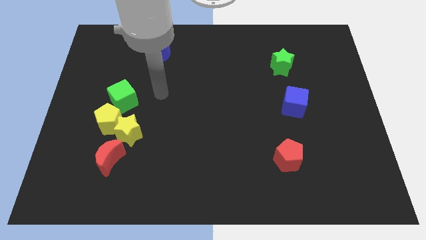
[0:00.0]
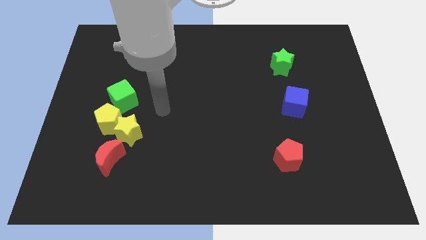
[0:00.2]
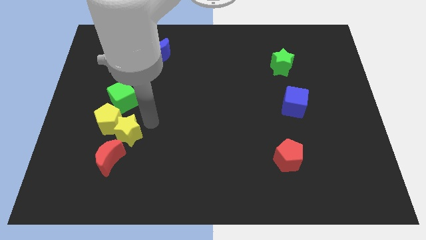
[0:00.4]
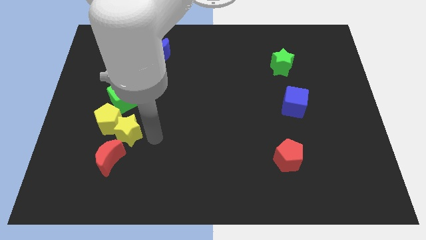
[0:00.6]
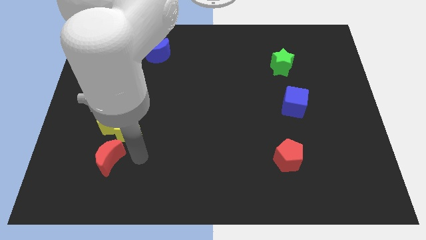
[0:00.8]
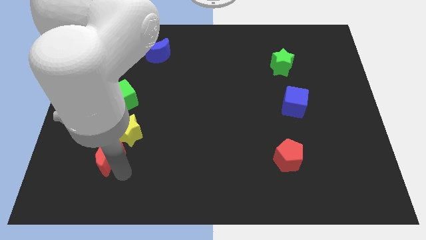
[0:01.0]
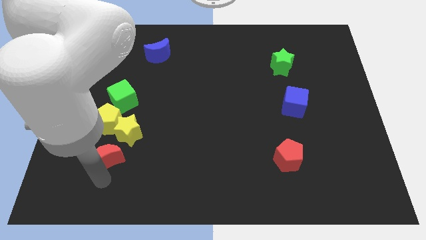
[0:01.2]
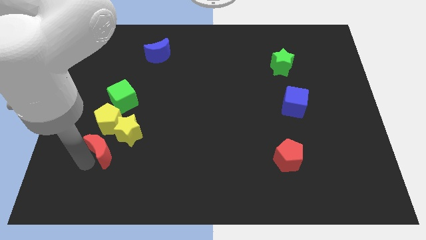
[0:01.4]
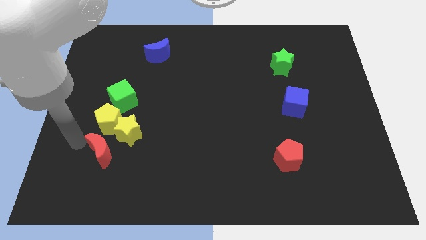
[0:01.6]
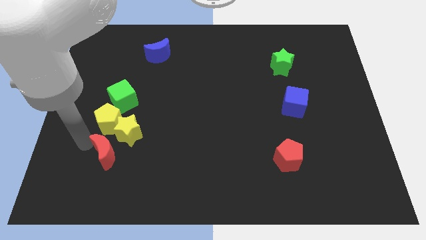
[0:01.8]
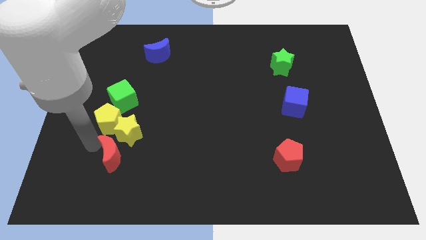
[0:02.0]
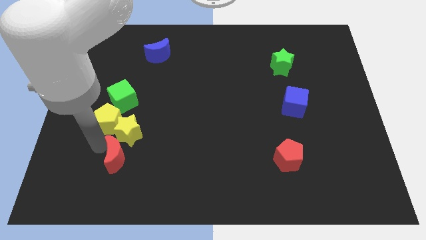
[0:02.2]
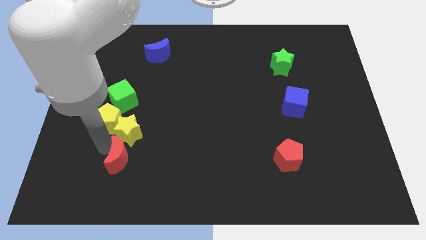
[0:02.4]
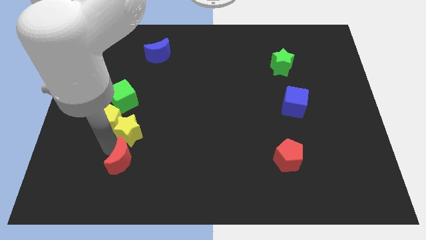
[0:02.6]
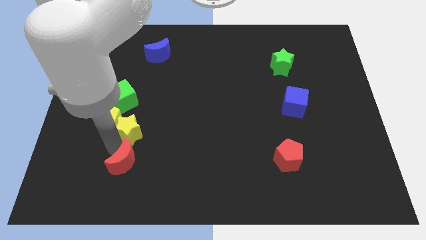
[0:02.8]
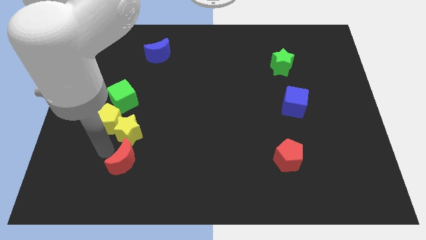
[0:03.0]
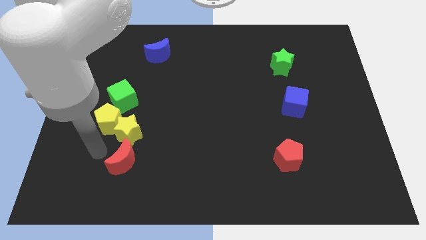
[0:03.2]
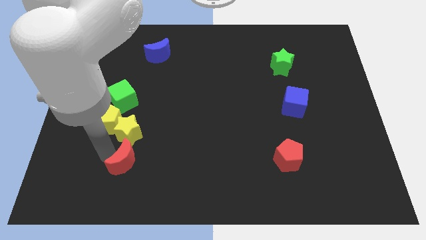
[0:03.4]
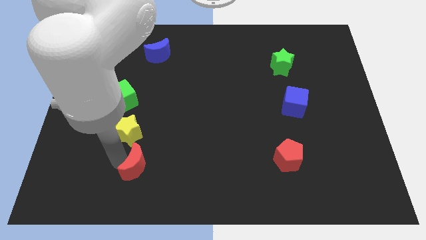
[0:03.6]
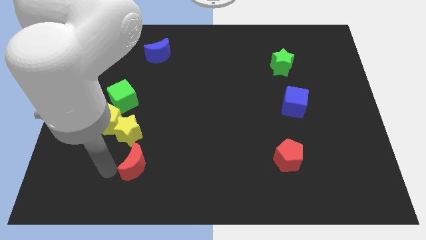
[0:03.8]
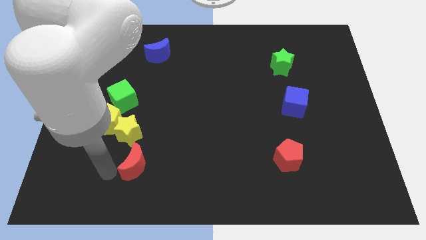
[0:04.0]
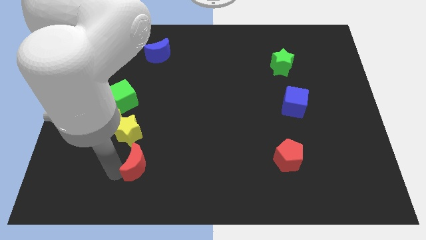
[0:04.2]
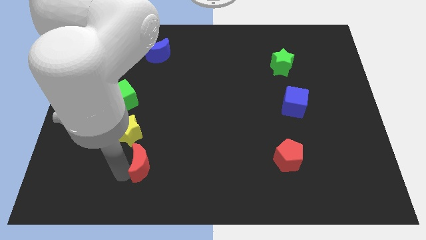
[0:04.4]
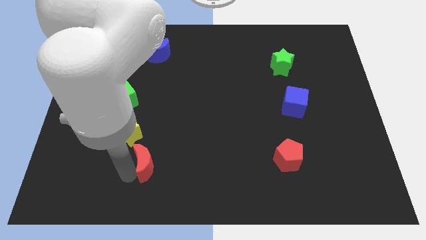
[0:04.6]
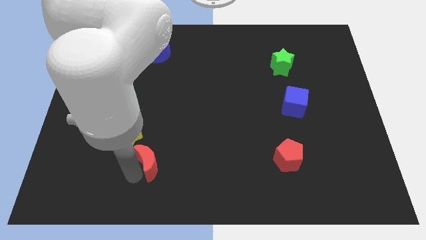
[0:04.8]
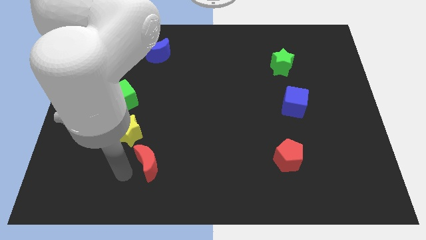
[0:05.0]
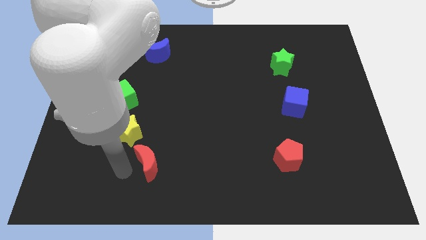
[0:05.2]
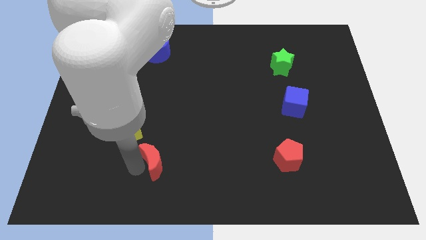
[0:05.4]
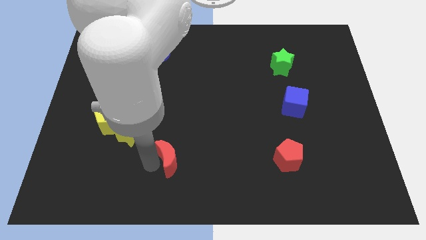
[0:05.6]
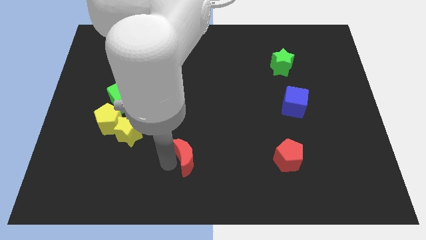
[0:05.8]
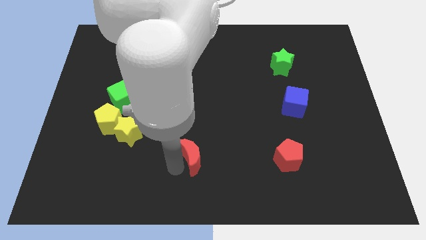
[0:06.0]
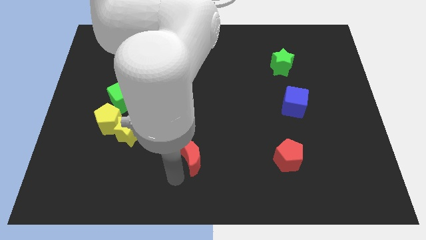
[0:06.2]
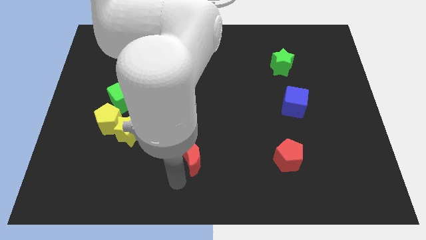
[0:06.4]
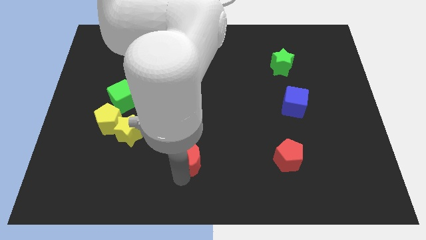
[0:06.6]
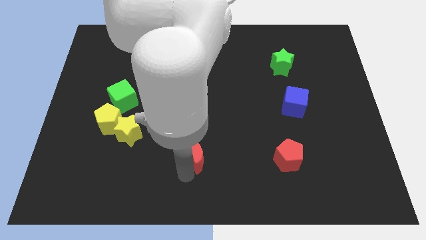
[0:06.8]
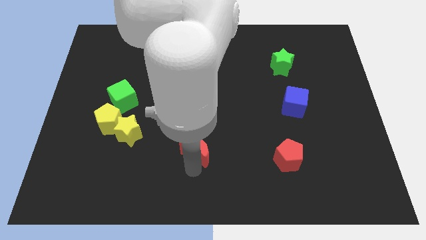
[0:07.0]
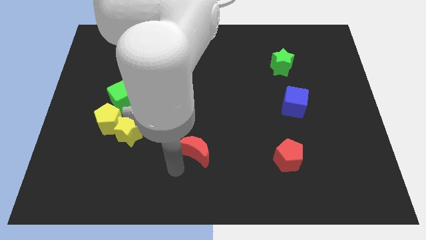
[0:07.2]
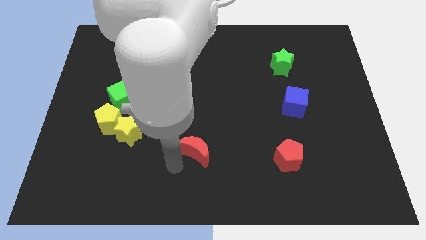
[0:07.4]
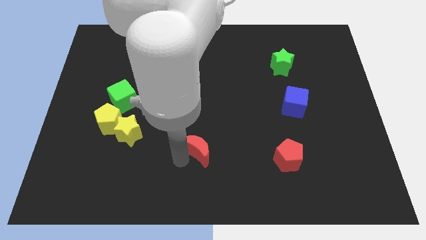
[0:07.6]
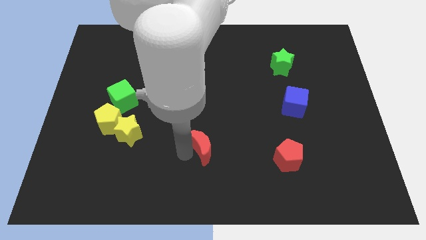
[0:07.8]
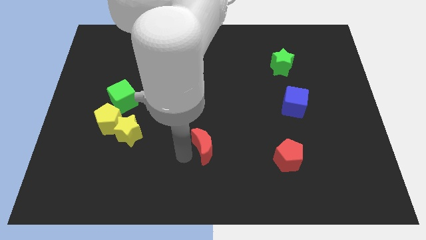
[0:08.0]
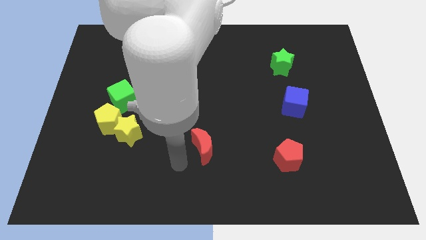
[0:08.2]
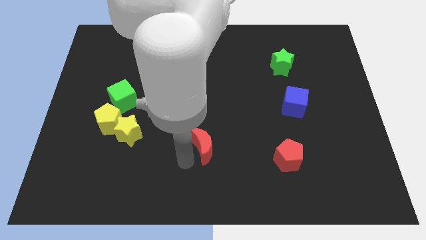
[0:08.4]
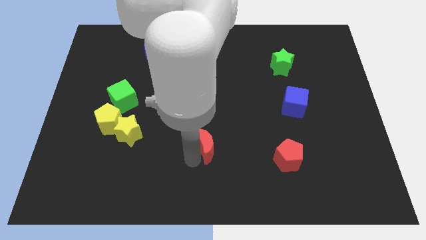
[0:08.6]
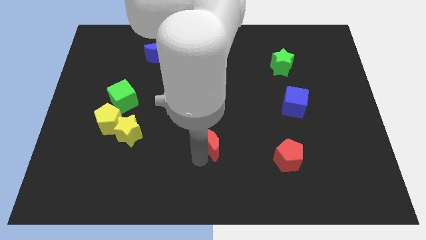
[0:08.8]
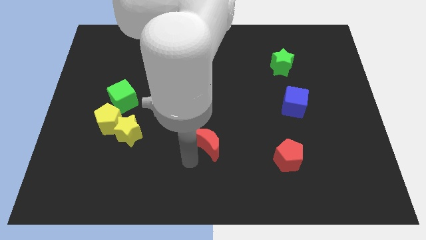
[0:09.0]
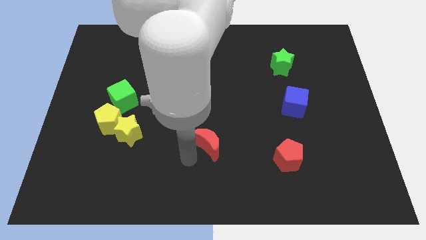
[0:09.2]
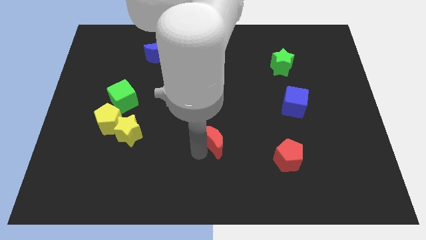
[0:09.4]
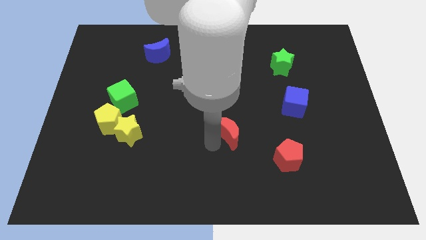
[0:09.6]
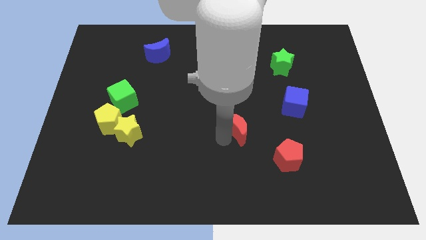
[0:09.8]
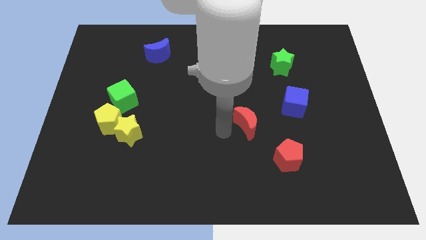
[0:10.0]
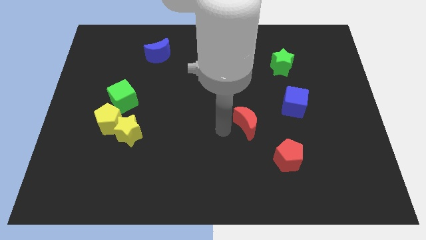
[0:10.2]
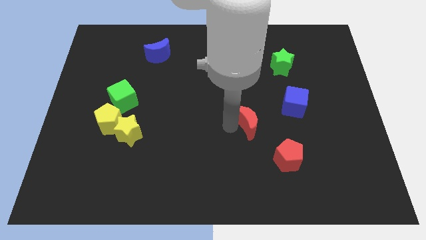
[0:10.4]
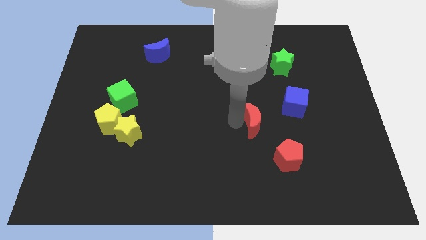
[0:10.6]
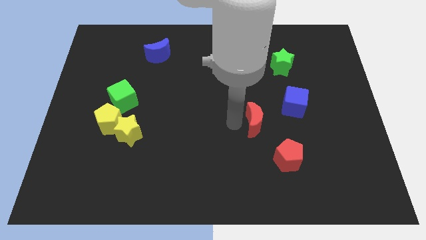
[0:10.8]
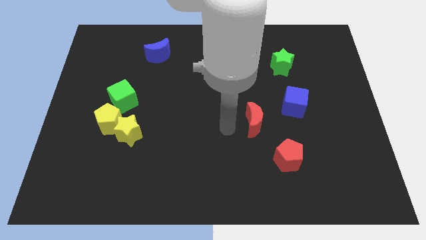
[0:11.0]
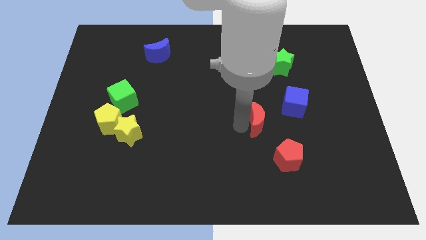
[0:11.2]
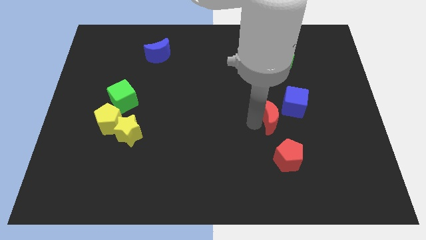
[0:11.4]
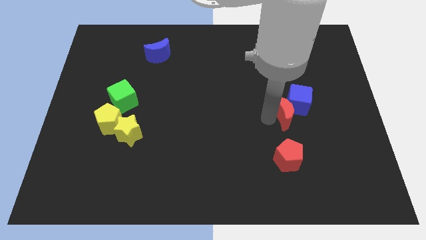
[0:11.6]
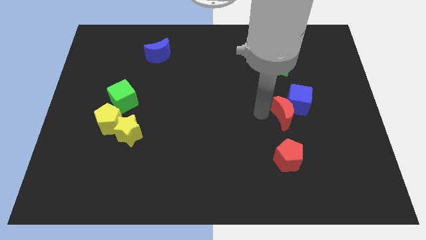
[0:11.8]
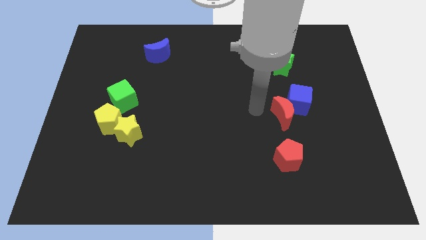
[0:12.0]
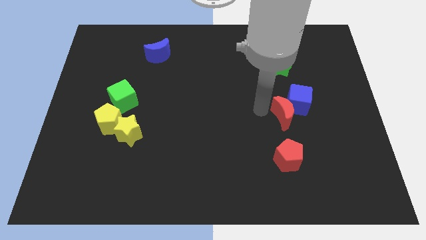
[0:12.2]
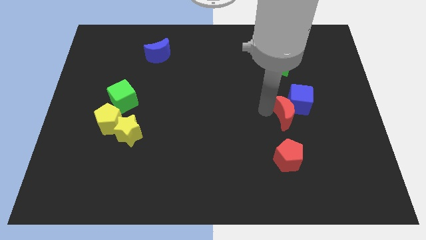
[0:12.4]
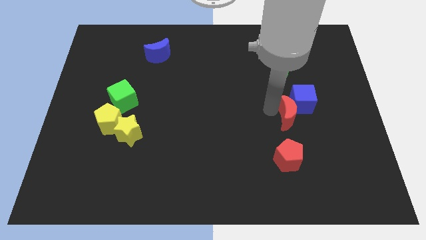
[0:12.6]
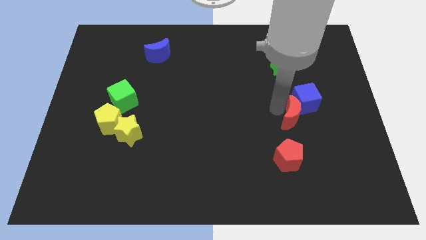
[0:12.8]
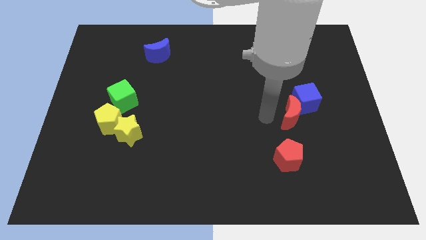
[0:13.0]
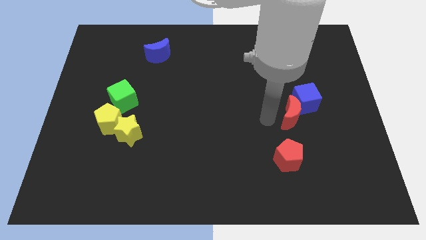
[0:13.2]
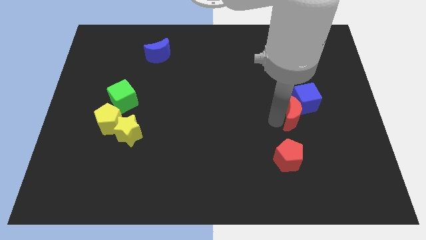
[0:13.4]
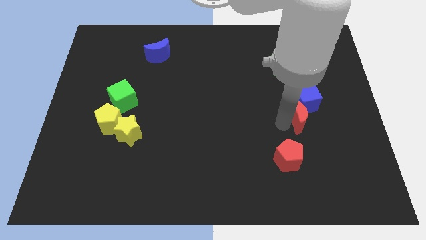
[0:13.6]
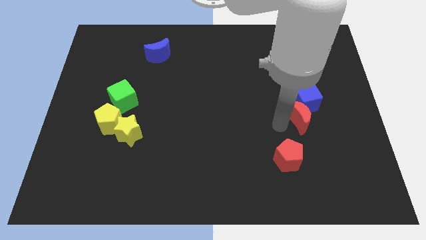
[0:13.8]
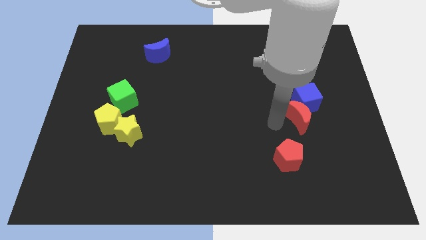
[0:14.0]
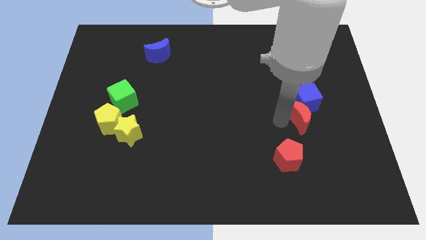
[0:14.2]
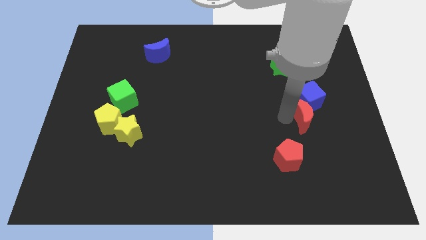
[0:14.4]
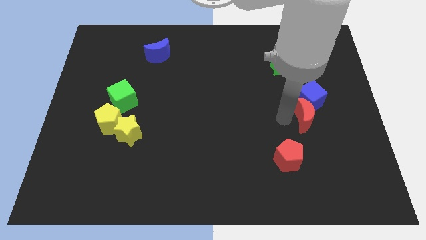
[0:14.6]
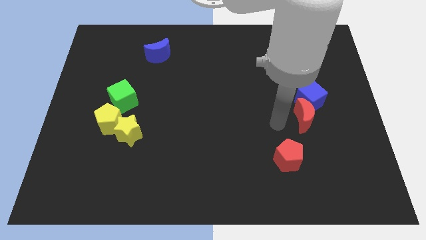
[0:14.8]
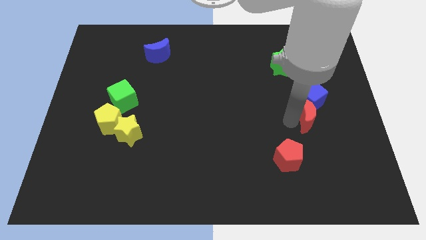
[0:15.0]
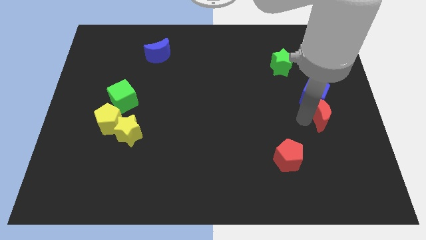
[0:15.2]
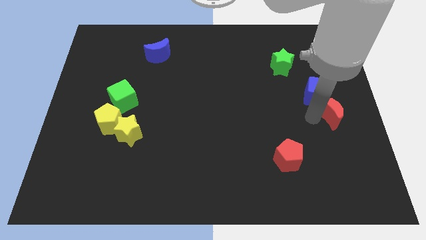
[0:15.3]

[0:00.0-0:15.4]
slide the red moon to the right side of the board
